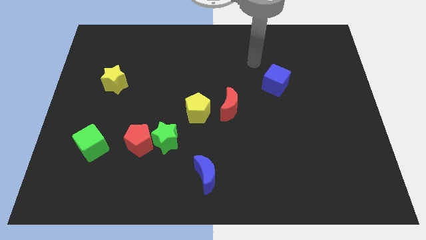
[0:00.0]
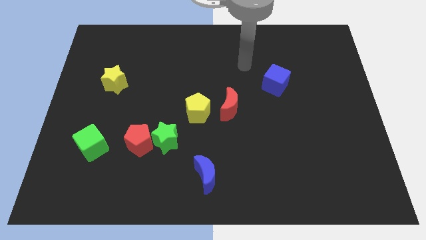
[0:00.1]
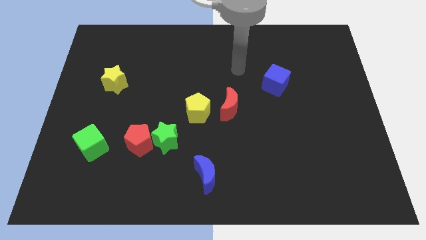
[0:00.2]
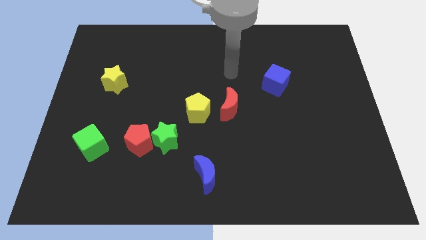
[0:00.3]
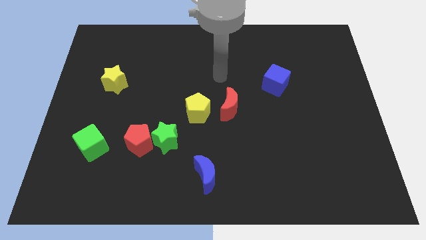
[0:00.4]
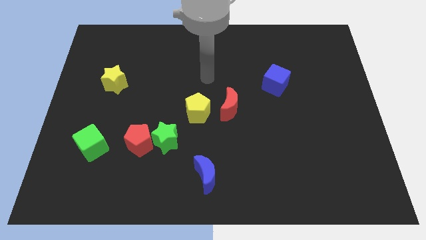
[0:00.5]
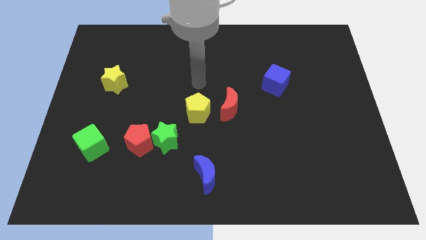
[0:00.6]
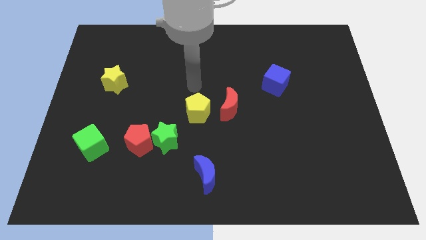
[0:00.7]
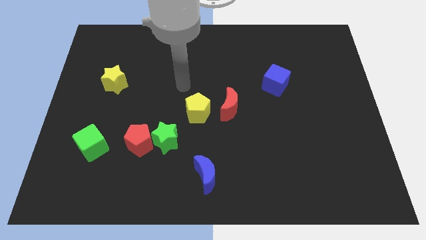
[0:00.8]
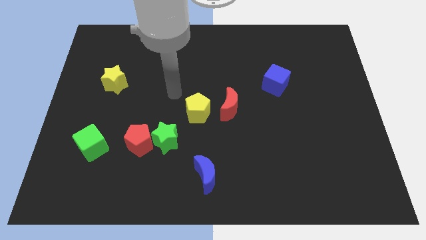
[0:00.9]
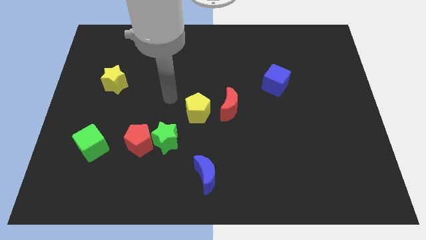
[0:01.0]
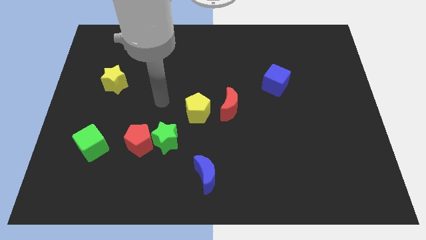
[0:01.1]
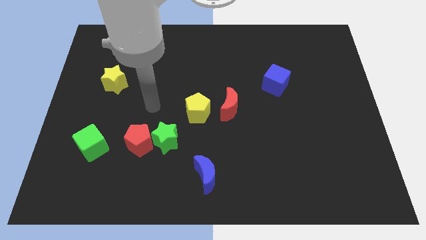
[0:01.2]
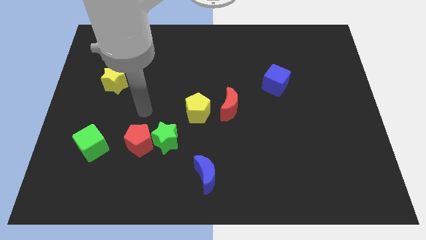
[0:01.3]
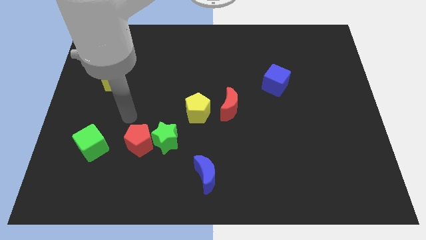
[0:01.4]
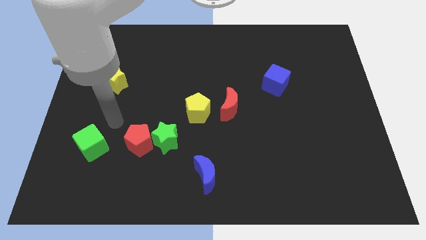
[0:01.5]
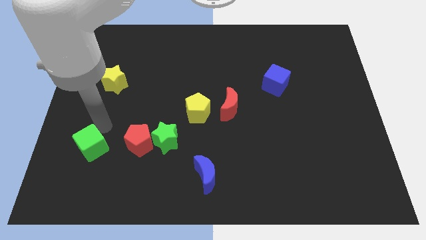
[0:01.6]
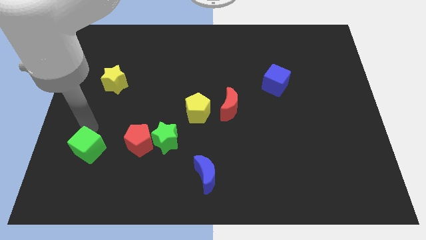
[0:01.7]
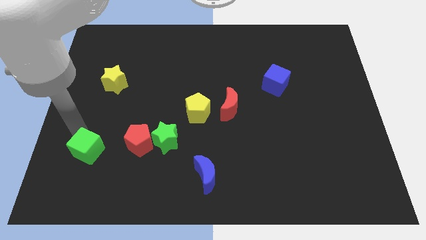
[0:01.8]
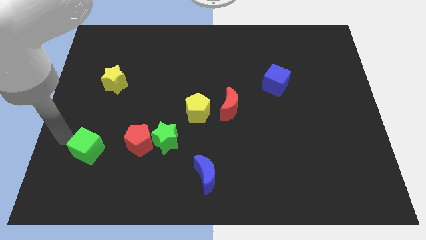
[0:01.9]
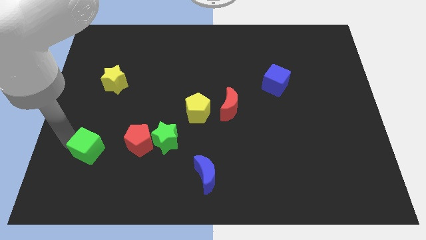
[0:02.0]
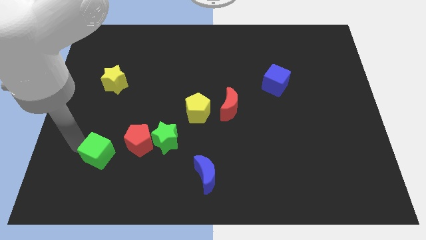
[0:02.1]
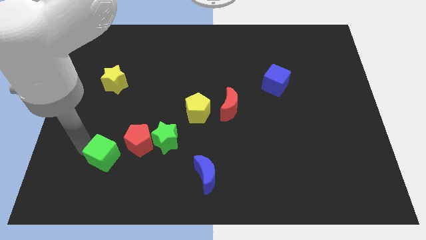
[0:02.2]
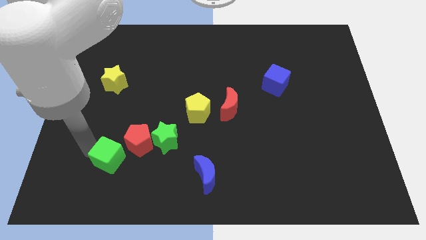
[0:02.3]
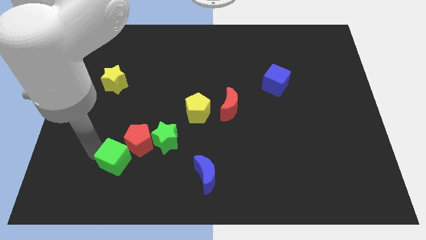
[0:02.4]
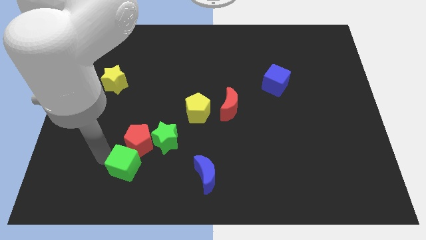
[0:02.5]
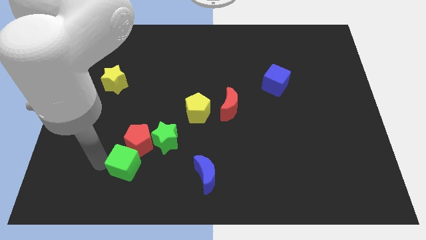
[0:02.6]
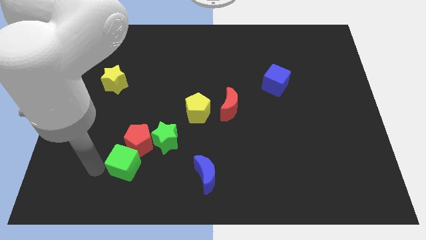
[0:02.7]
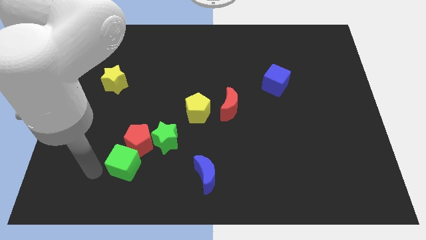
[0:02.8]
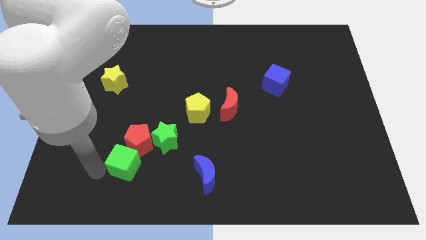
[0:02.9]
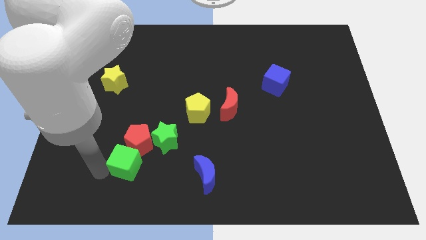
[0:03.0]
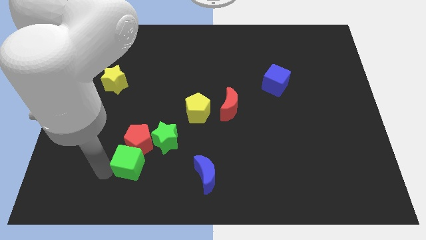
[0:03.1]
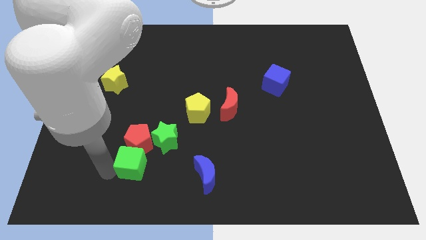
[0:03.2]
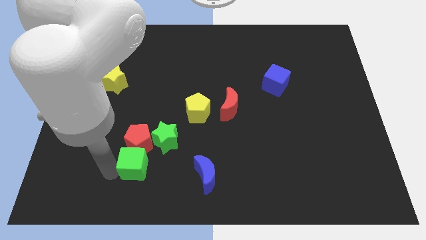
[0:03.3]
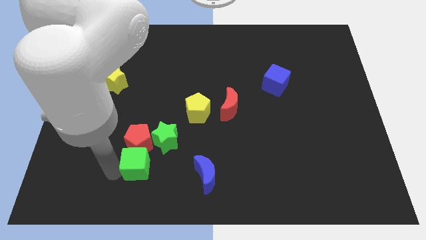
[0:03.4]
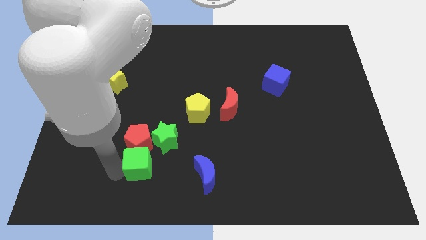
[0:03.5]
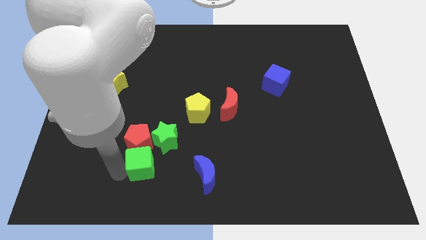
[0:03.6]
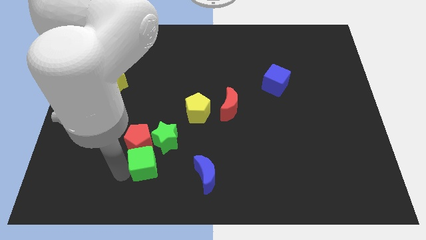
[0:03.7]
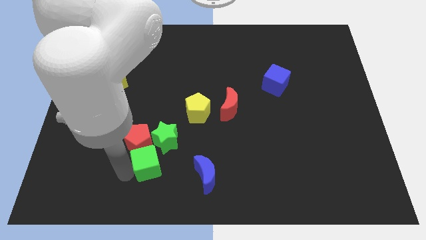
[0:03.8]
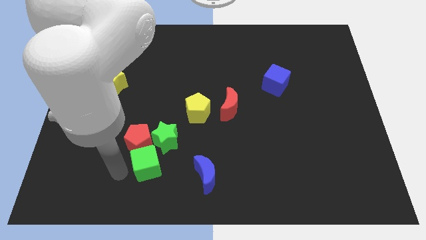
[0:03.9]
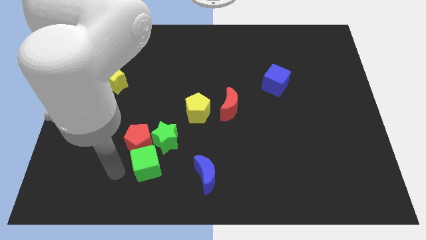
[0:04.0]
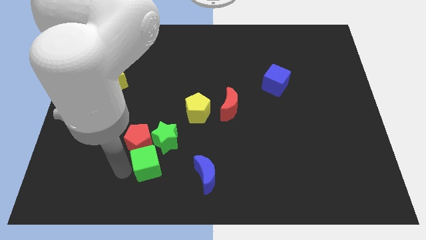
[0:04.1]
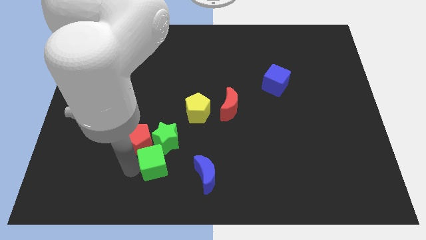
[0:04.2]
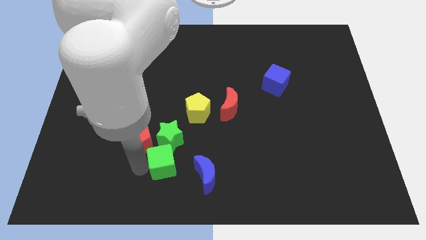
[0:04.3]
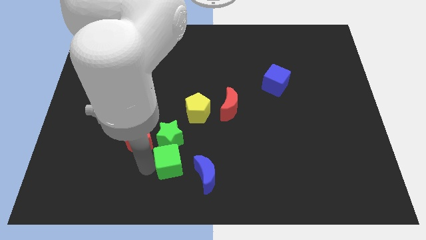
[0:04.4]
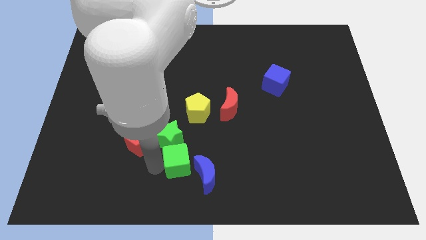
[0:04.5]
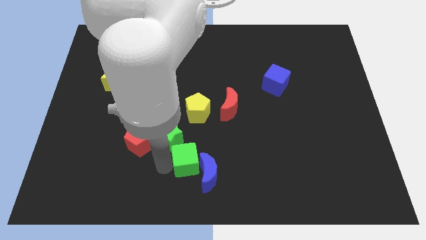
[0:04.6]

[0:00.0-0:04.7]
push the green cube right

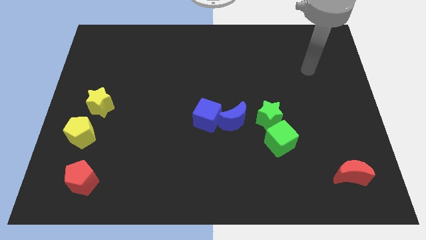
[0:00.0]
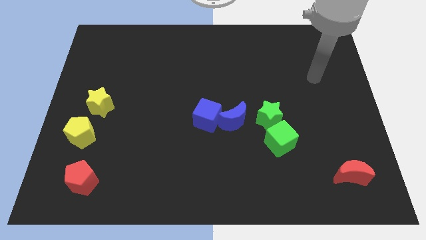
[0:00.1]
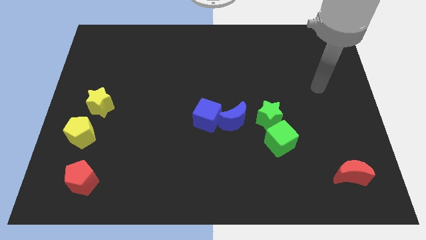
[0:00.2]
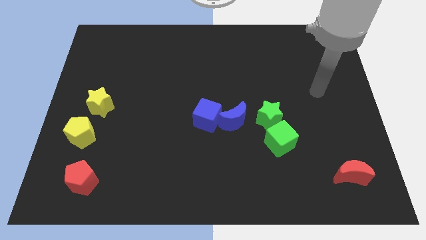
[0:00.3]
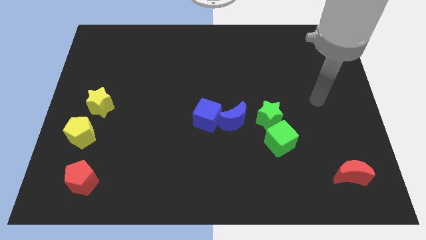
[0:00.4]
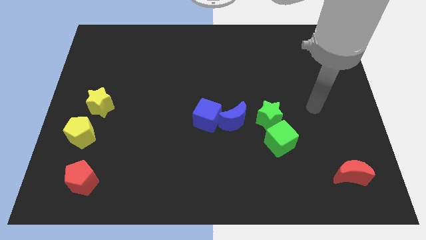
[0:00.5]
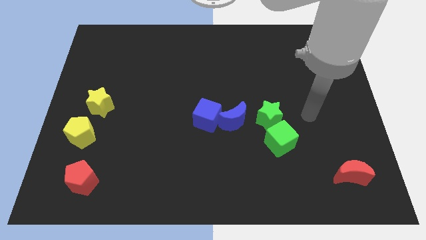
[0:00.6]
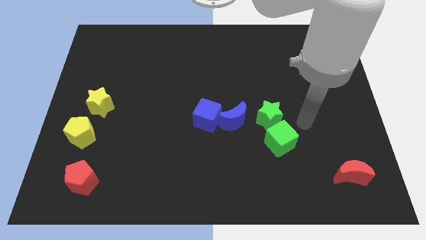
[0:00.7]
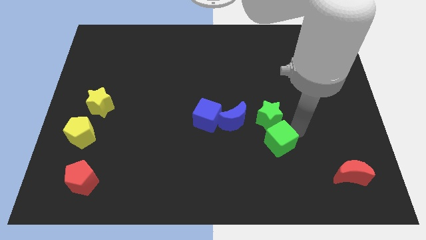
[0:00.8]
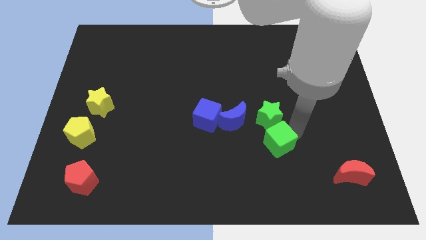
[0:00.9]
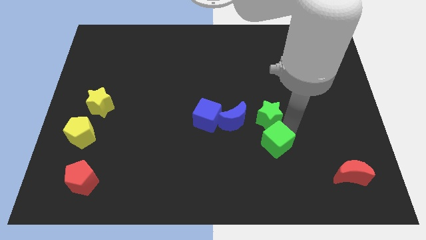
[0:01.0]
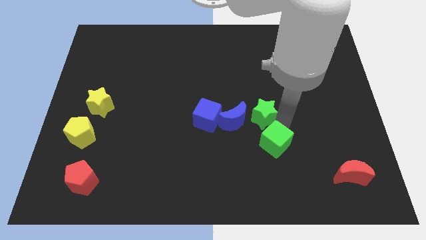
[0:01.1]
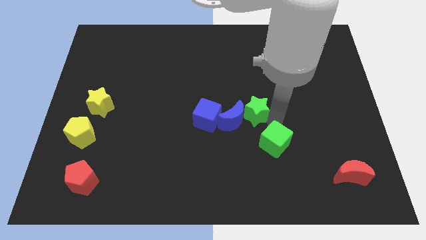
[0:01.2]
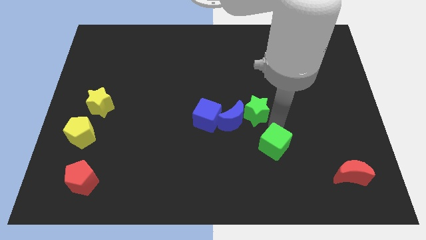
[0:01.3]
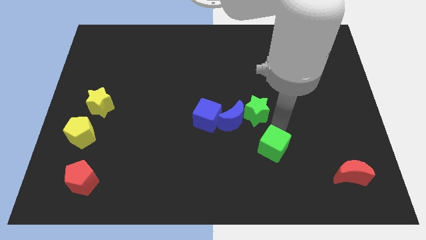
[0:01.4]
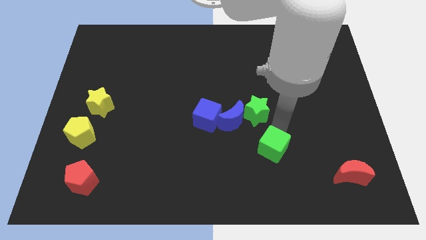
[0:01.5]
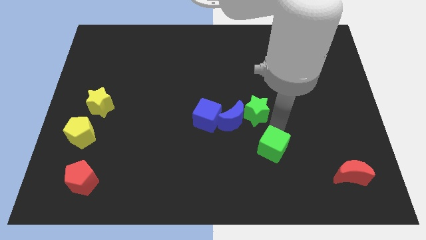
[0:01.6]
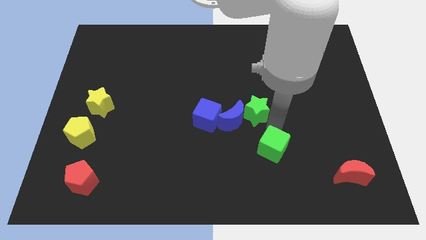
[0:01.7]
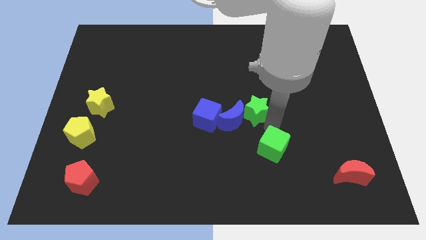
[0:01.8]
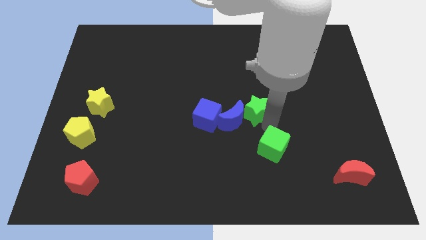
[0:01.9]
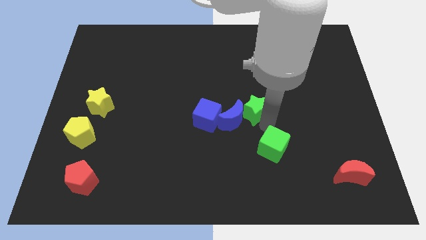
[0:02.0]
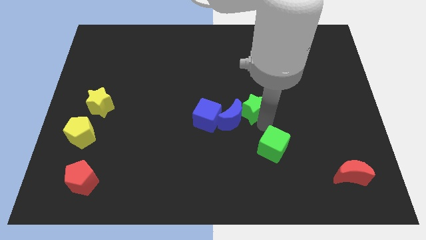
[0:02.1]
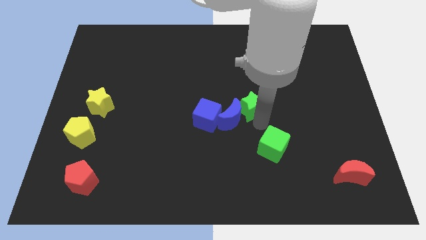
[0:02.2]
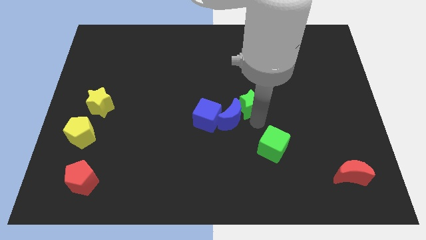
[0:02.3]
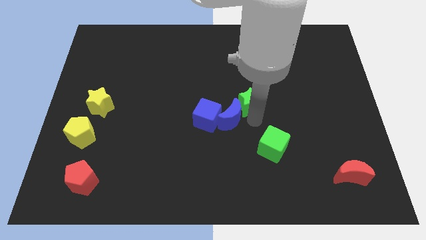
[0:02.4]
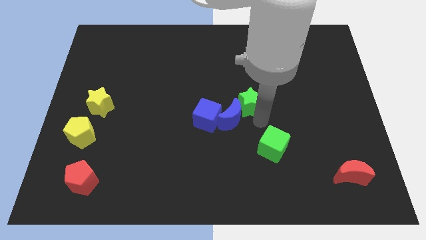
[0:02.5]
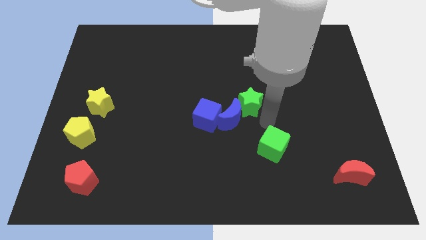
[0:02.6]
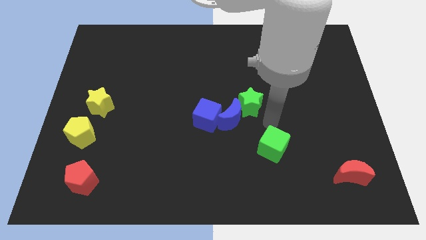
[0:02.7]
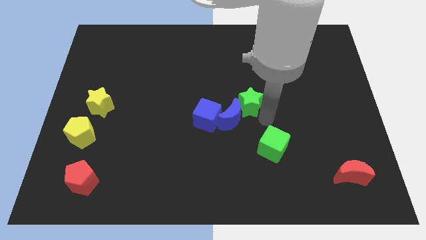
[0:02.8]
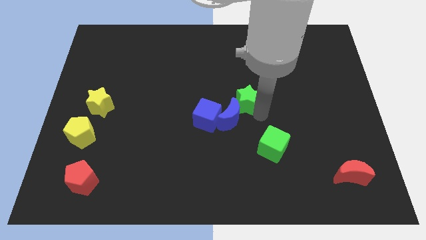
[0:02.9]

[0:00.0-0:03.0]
move the green star upwards and to the left a little
